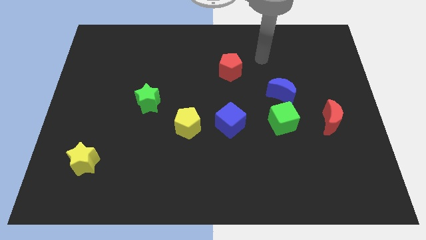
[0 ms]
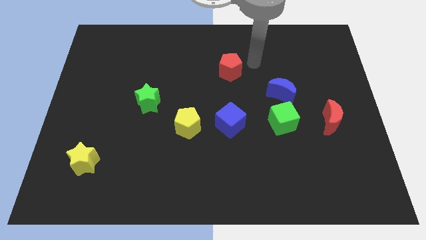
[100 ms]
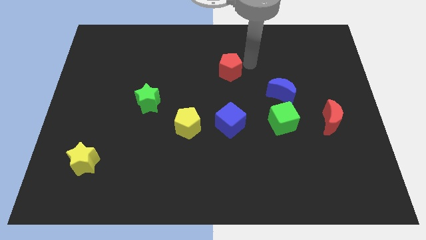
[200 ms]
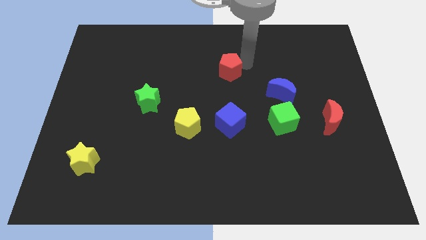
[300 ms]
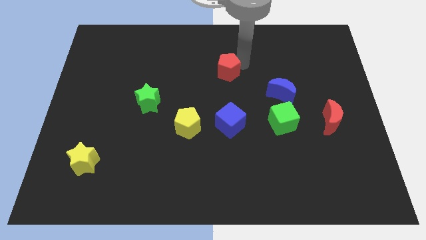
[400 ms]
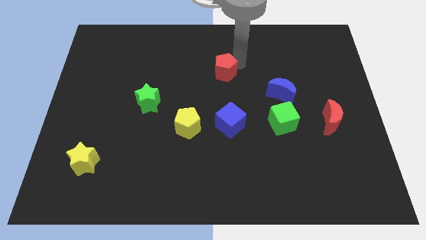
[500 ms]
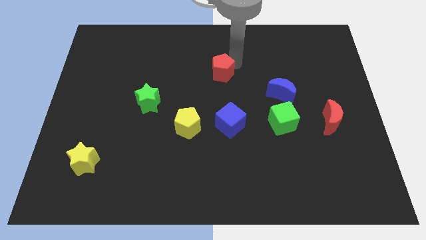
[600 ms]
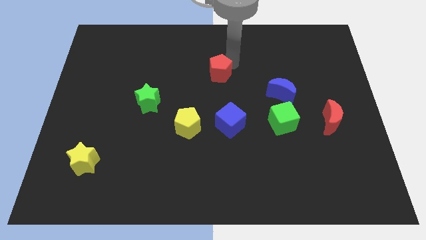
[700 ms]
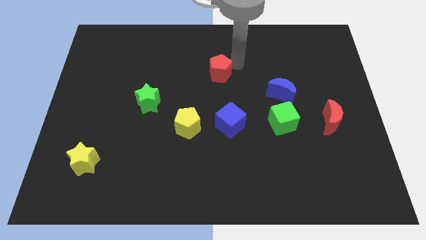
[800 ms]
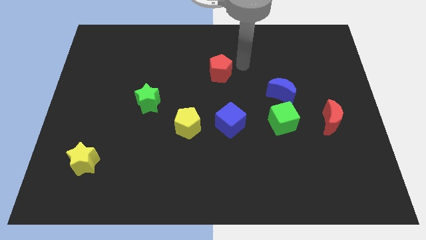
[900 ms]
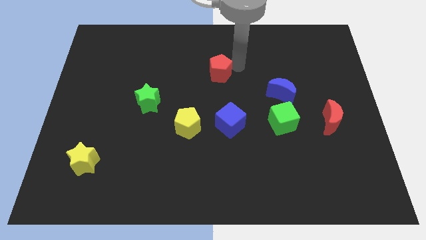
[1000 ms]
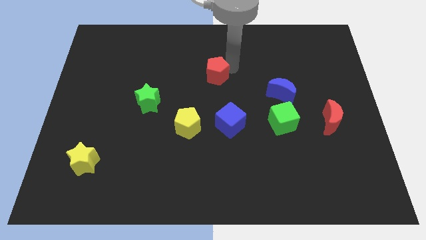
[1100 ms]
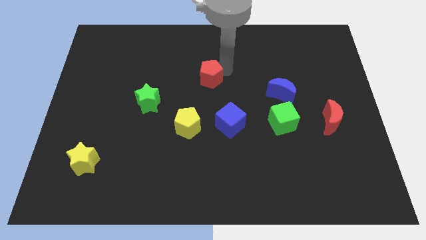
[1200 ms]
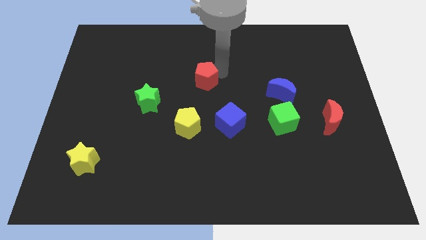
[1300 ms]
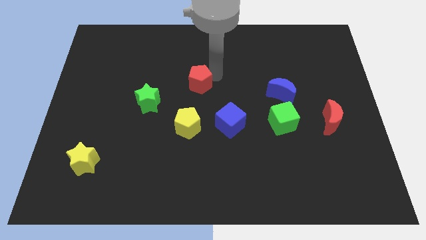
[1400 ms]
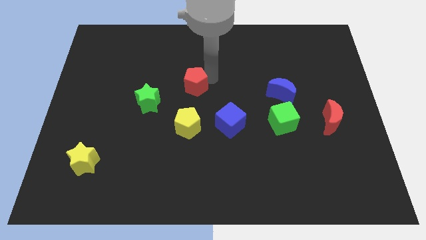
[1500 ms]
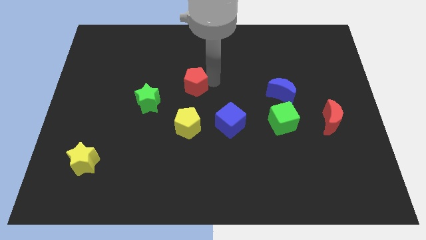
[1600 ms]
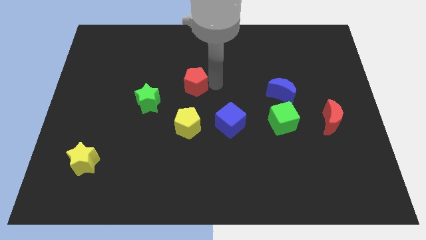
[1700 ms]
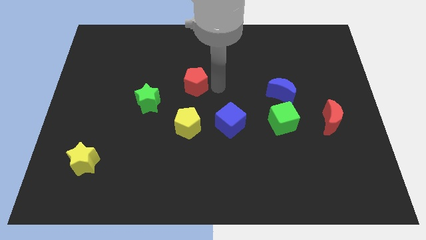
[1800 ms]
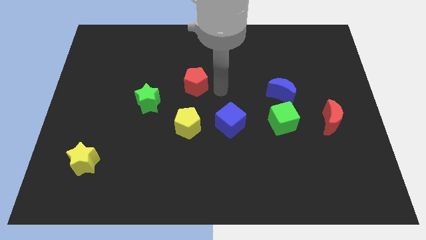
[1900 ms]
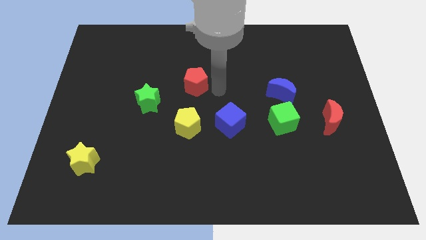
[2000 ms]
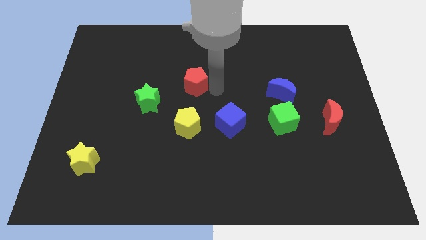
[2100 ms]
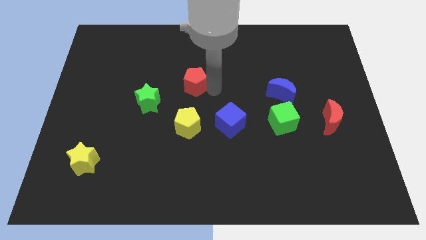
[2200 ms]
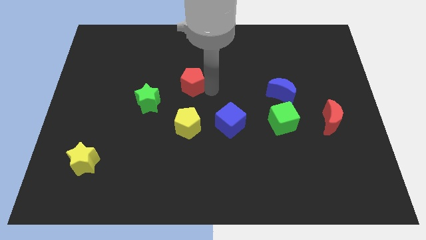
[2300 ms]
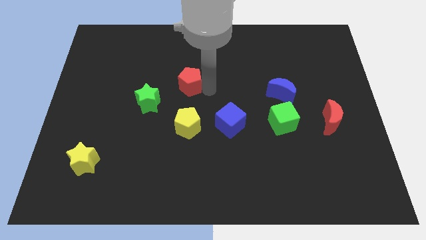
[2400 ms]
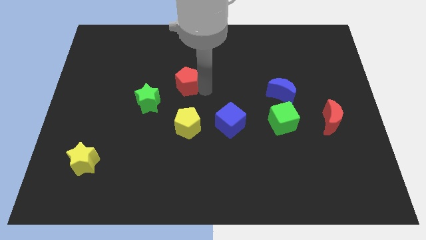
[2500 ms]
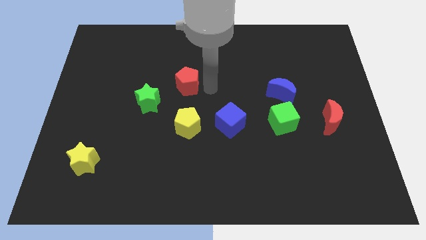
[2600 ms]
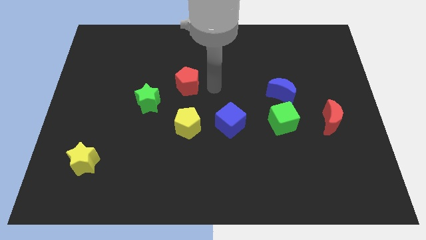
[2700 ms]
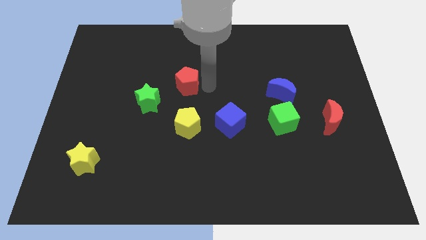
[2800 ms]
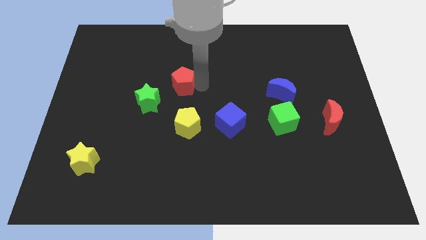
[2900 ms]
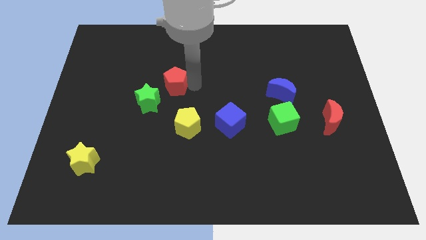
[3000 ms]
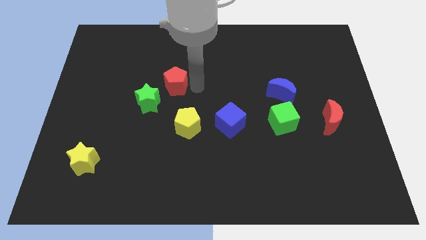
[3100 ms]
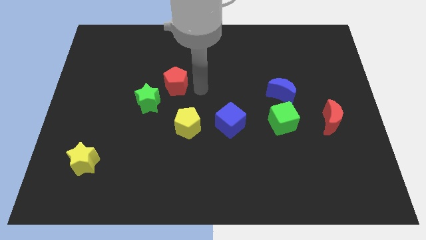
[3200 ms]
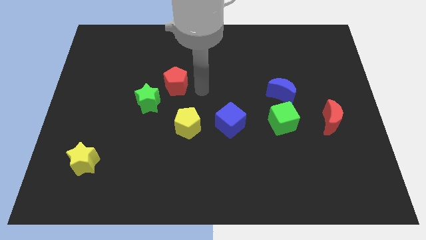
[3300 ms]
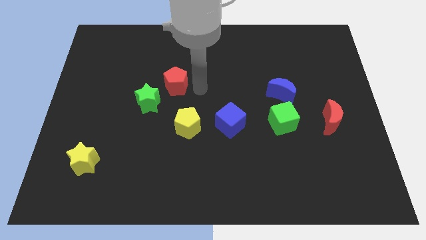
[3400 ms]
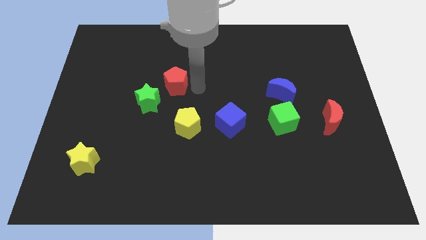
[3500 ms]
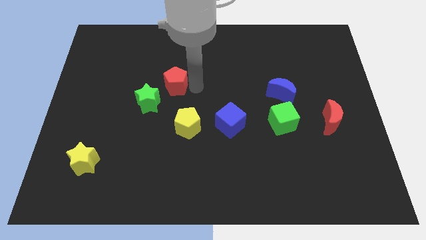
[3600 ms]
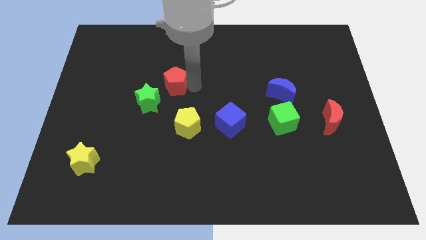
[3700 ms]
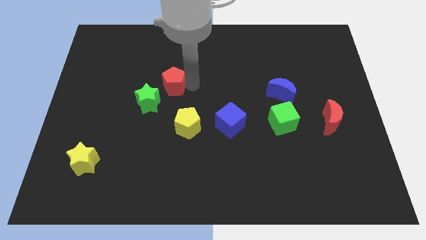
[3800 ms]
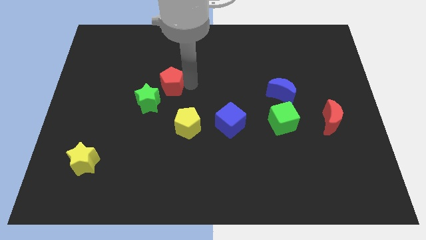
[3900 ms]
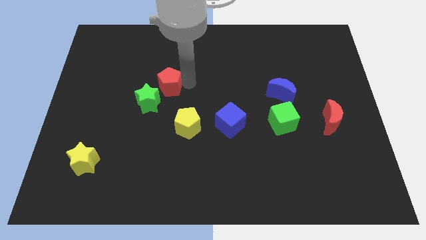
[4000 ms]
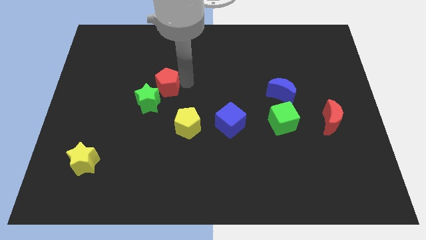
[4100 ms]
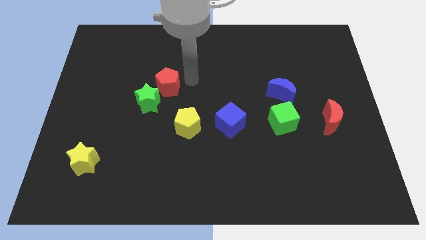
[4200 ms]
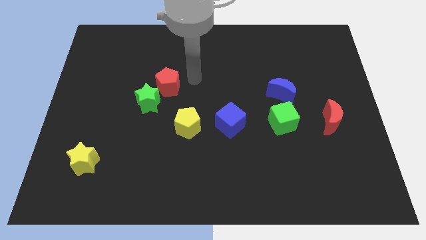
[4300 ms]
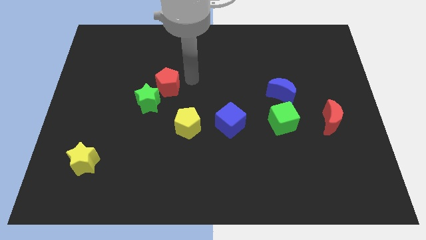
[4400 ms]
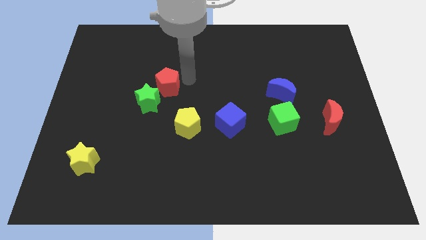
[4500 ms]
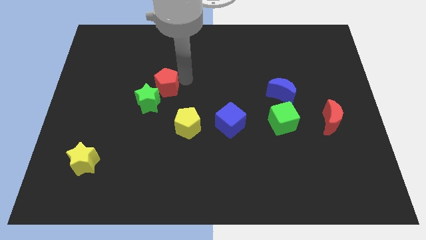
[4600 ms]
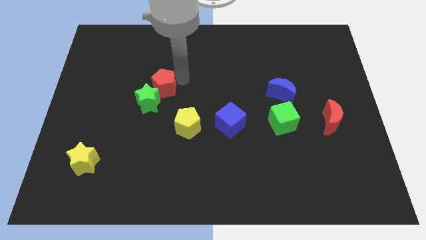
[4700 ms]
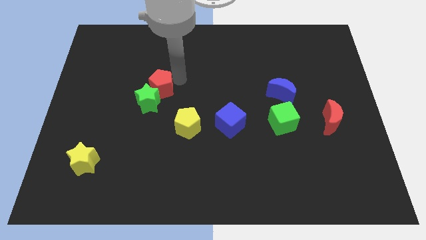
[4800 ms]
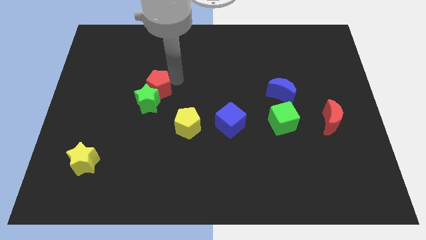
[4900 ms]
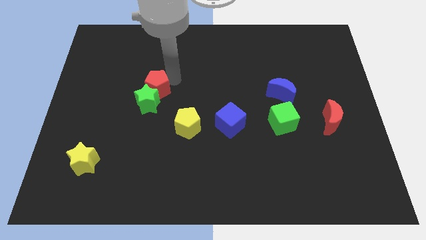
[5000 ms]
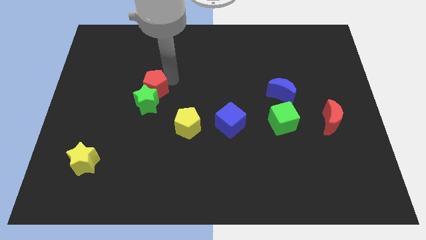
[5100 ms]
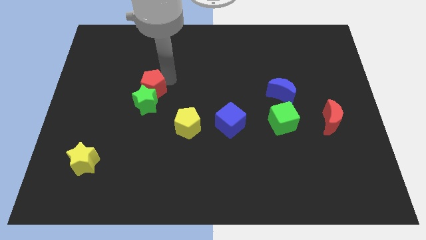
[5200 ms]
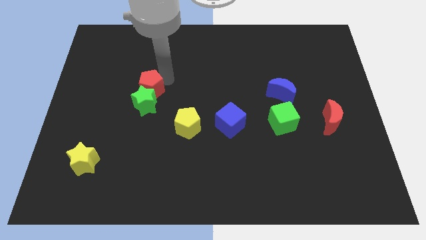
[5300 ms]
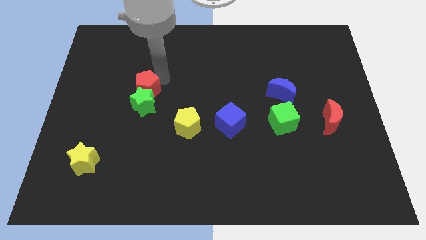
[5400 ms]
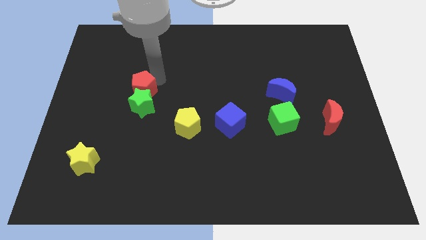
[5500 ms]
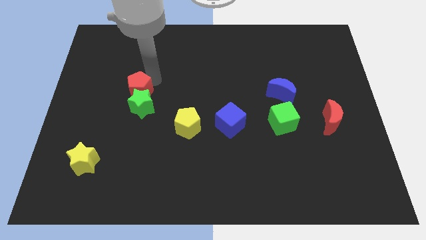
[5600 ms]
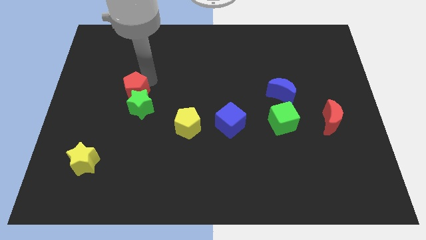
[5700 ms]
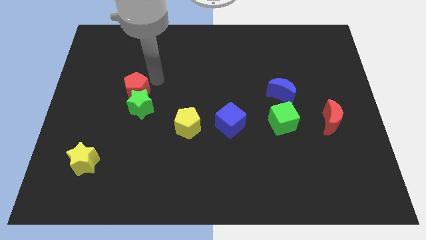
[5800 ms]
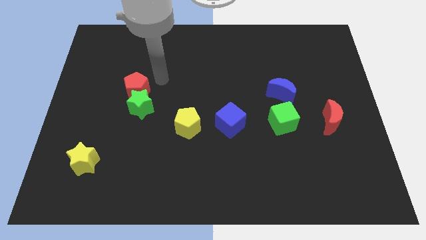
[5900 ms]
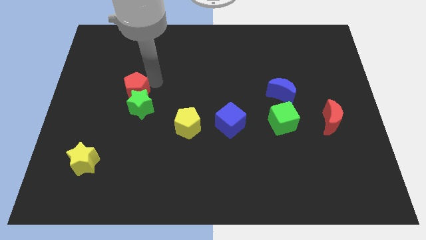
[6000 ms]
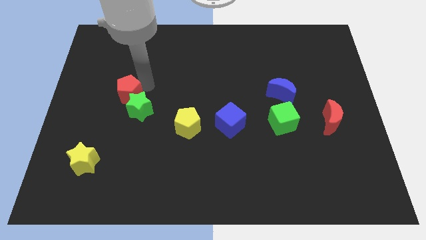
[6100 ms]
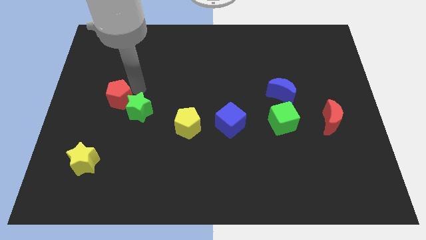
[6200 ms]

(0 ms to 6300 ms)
push the red pentagon to the left side of the green star

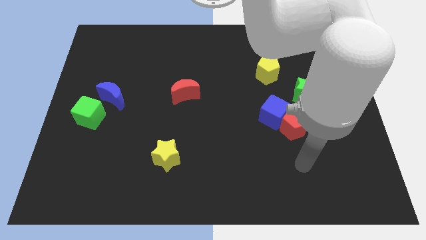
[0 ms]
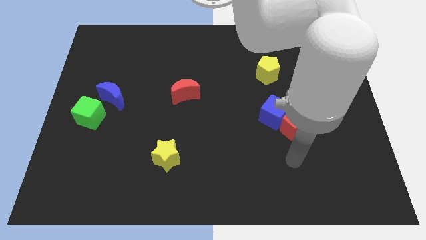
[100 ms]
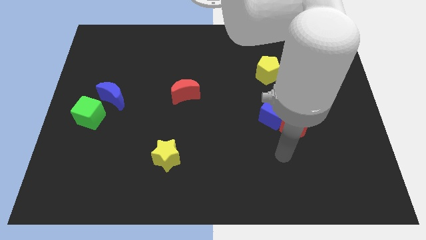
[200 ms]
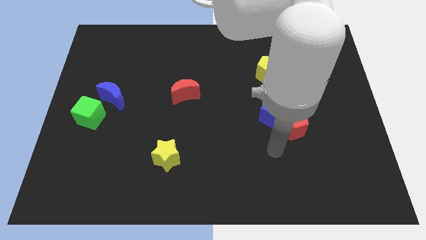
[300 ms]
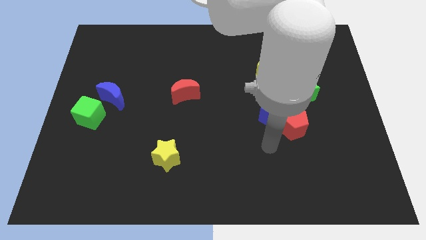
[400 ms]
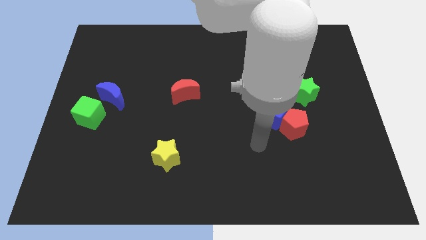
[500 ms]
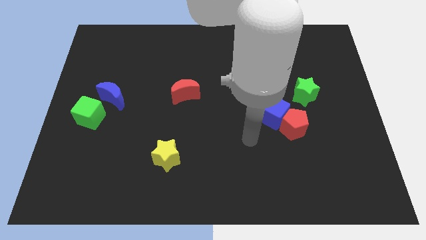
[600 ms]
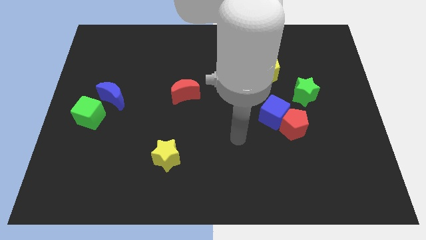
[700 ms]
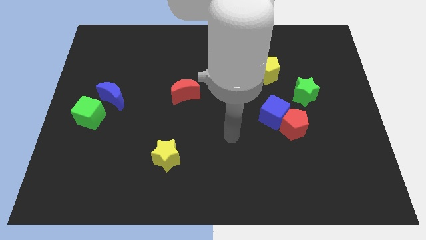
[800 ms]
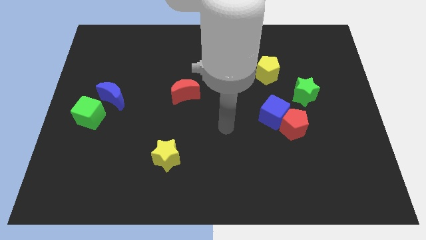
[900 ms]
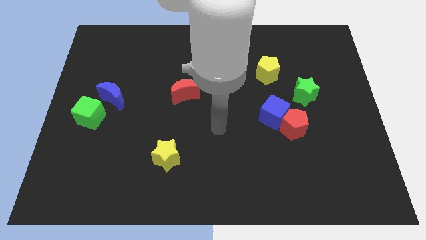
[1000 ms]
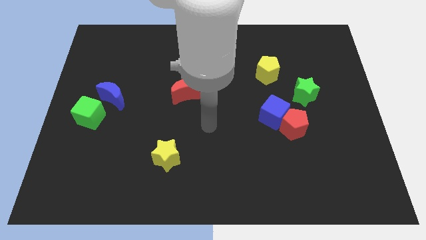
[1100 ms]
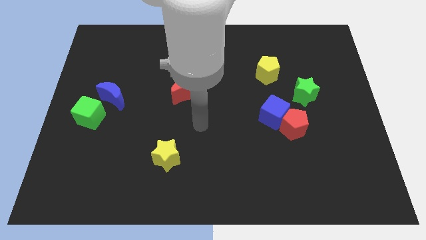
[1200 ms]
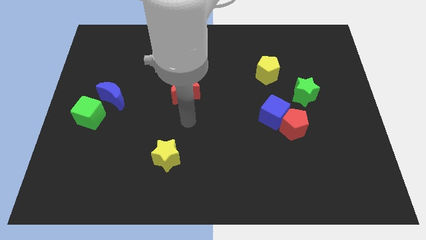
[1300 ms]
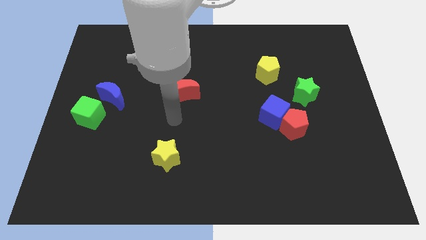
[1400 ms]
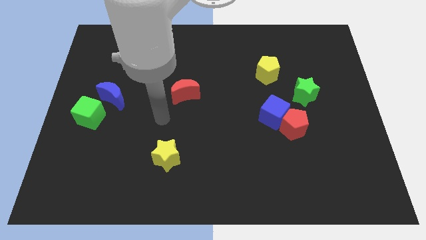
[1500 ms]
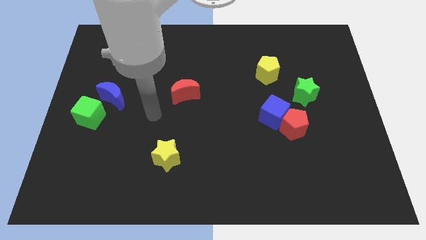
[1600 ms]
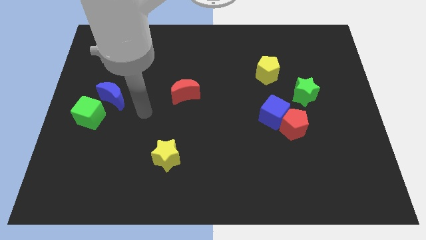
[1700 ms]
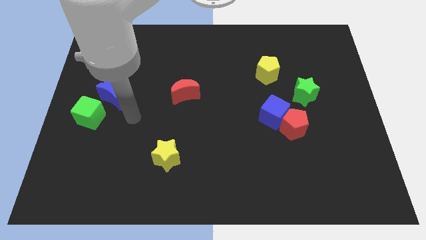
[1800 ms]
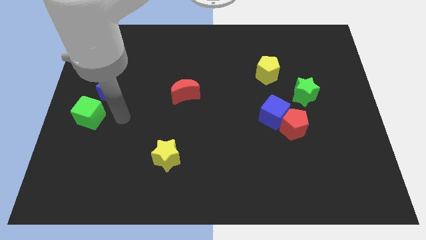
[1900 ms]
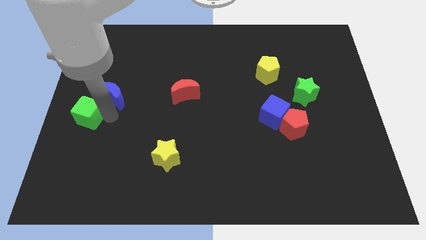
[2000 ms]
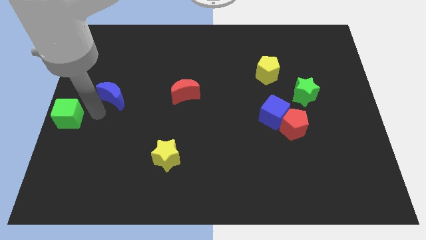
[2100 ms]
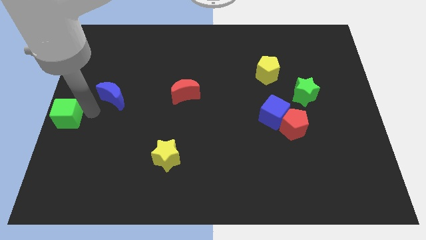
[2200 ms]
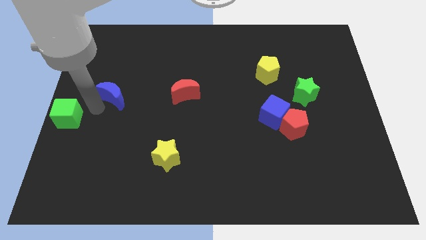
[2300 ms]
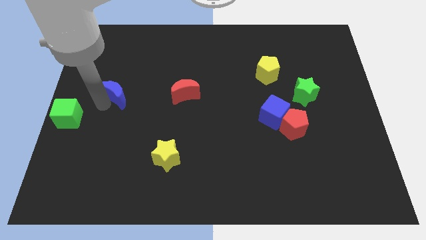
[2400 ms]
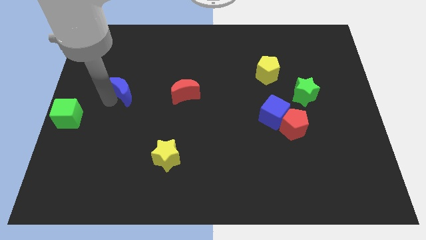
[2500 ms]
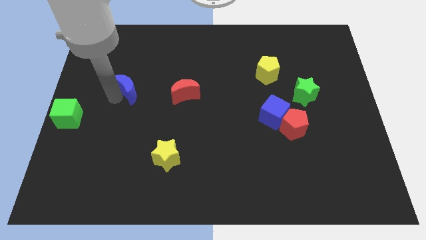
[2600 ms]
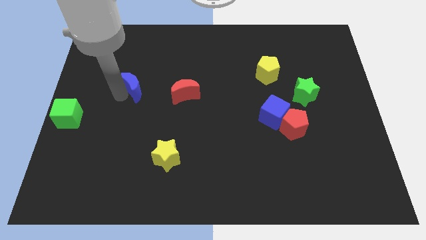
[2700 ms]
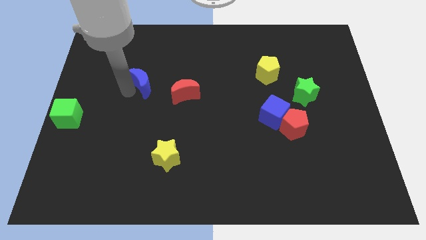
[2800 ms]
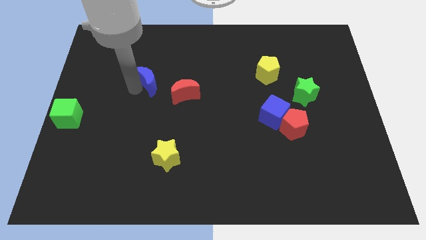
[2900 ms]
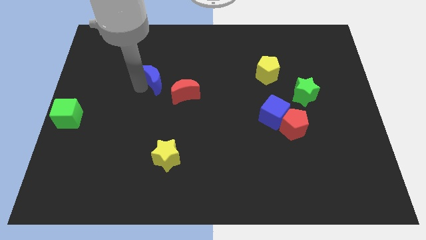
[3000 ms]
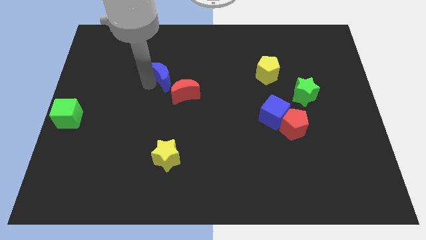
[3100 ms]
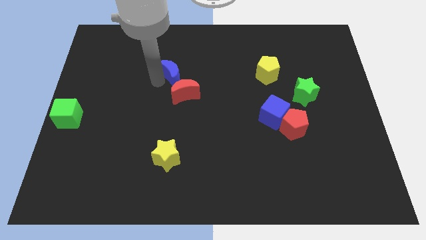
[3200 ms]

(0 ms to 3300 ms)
put the blue moon to the top side of the red moon
